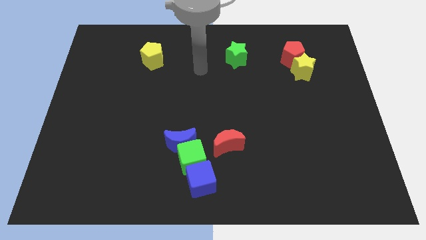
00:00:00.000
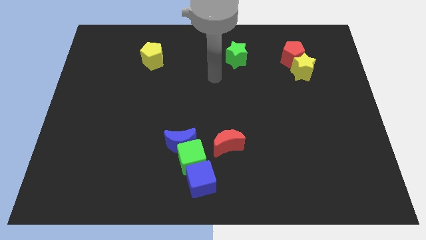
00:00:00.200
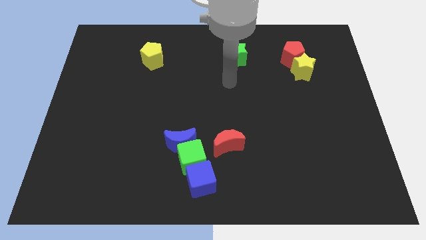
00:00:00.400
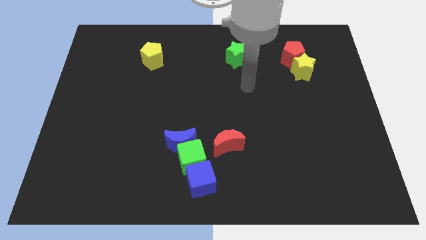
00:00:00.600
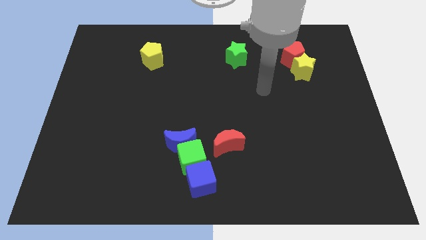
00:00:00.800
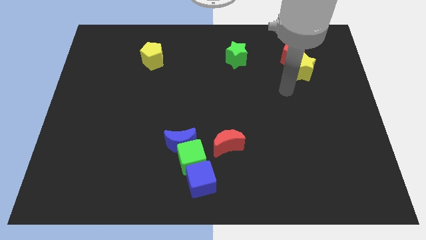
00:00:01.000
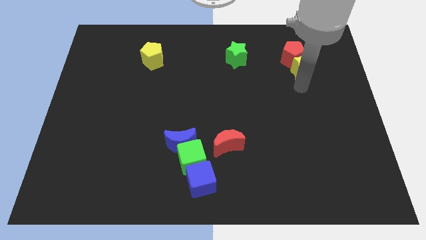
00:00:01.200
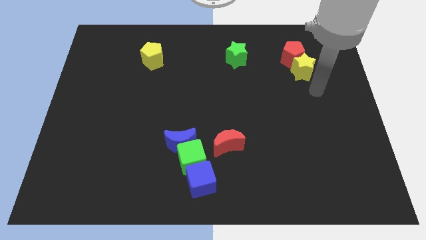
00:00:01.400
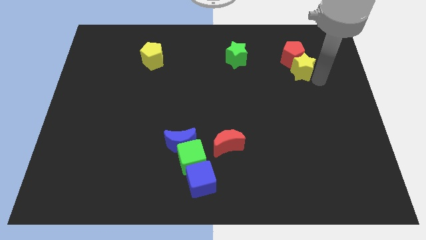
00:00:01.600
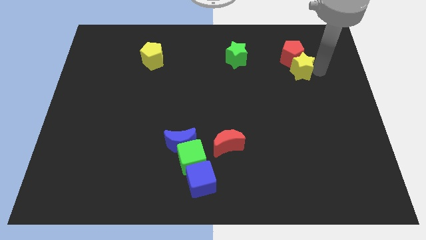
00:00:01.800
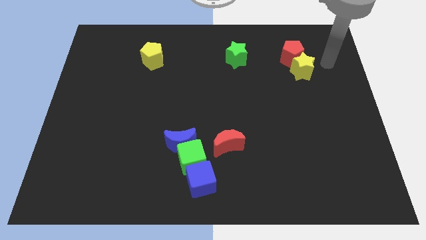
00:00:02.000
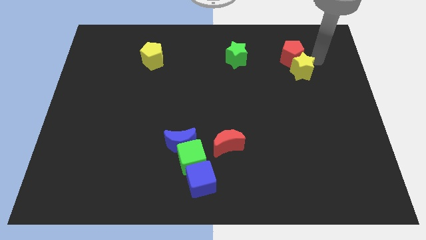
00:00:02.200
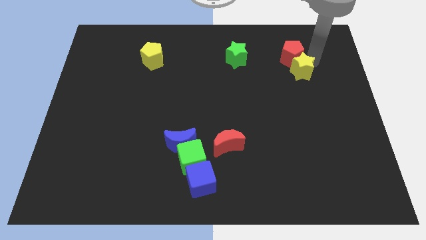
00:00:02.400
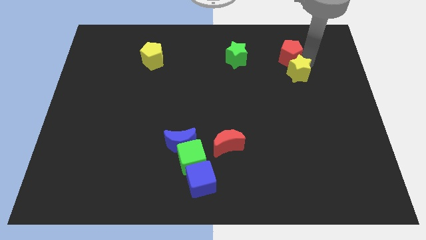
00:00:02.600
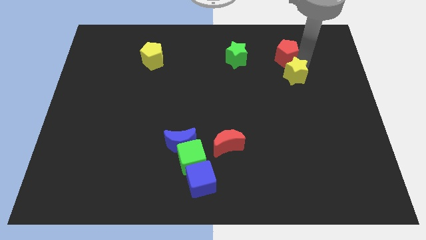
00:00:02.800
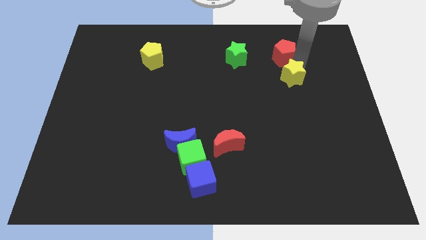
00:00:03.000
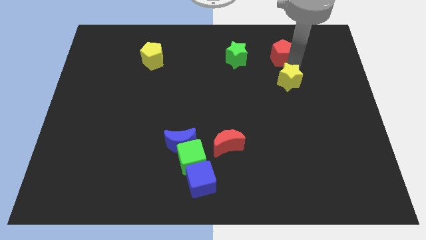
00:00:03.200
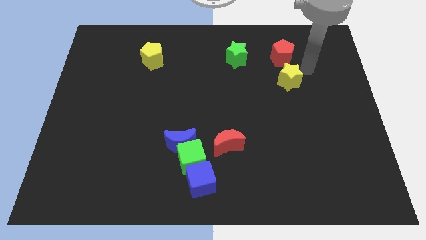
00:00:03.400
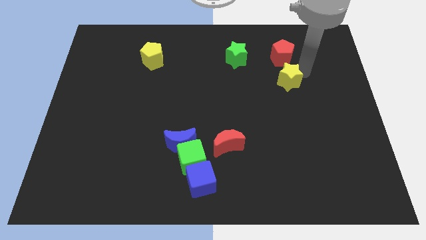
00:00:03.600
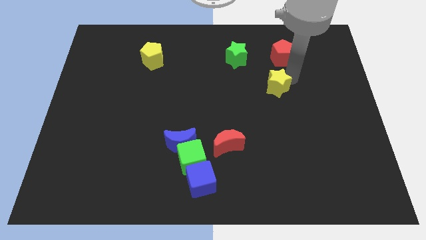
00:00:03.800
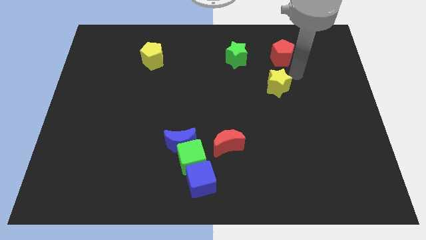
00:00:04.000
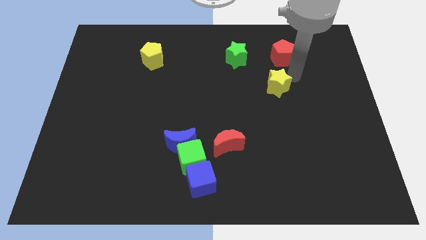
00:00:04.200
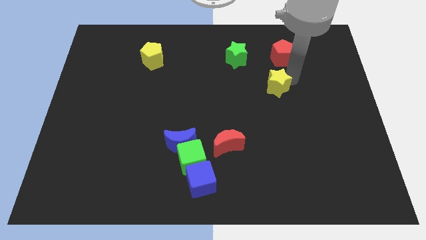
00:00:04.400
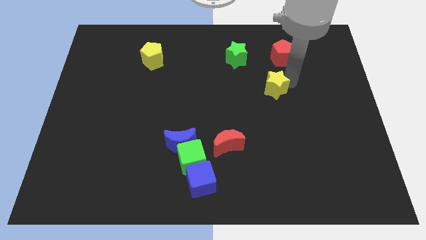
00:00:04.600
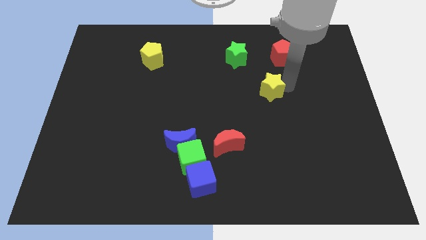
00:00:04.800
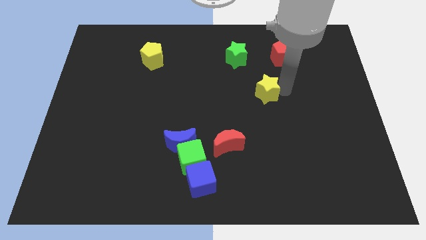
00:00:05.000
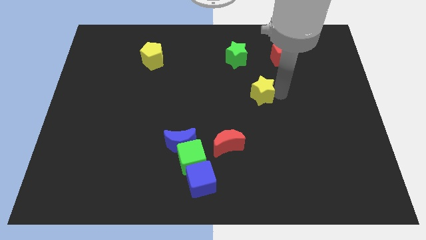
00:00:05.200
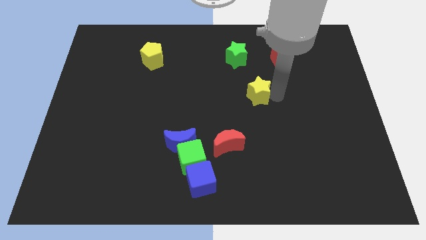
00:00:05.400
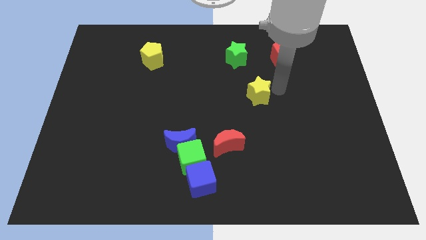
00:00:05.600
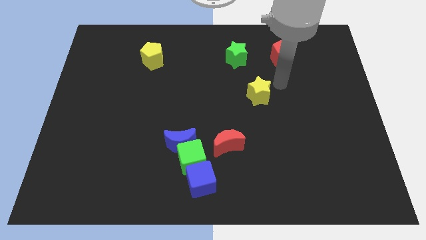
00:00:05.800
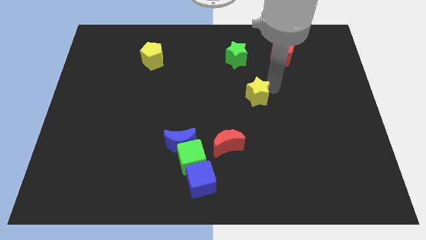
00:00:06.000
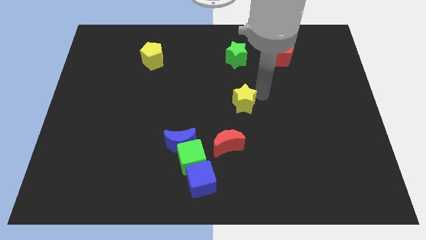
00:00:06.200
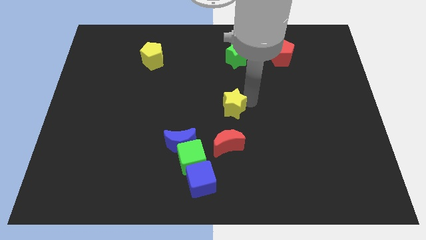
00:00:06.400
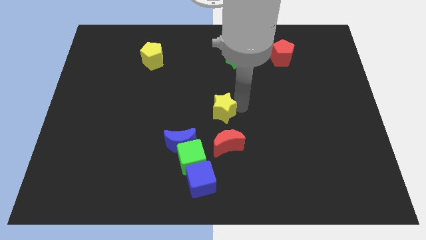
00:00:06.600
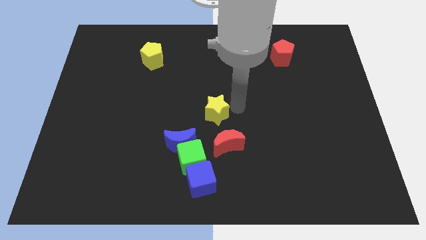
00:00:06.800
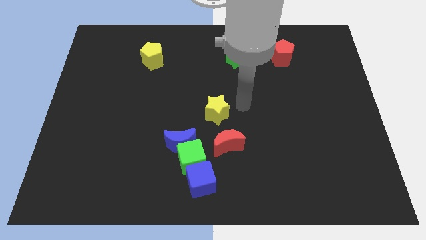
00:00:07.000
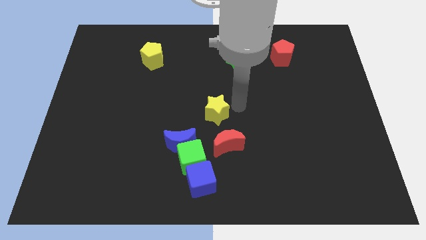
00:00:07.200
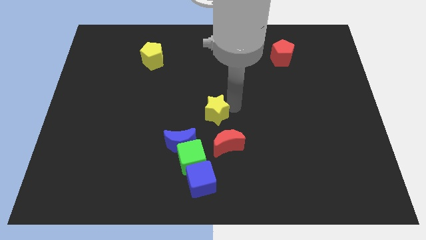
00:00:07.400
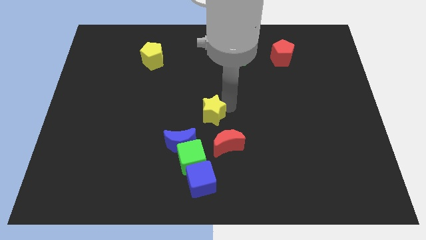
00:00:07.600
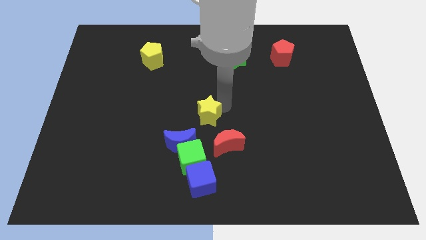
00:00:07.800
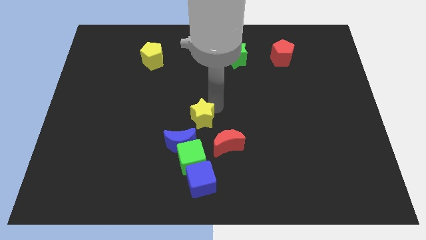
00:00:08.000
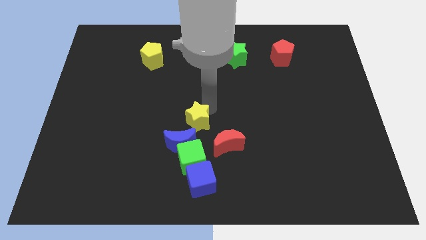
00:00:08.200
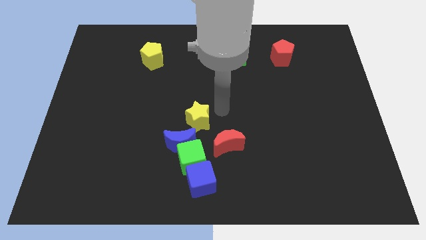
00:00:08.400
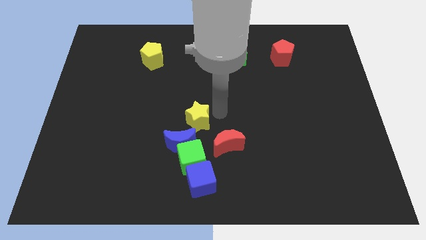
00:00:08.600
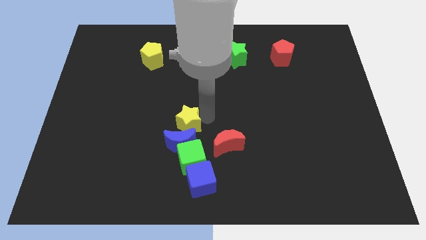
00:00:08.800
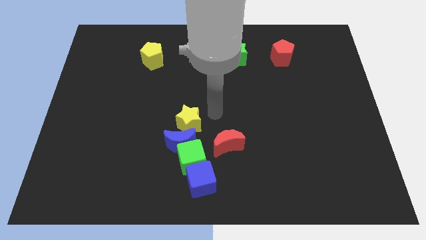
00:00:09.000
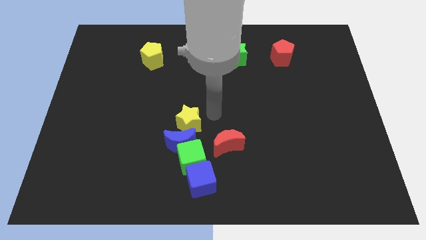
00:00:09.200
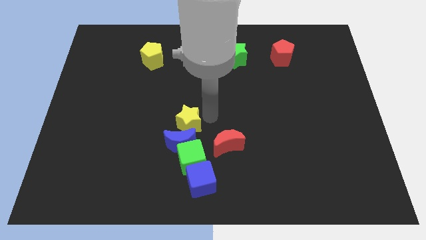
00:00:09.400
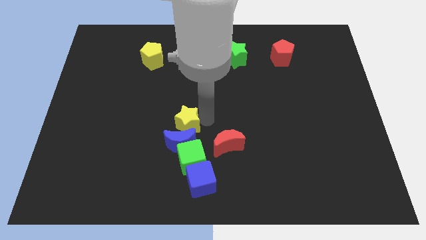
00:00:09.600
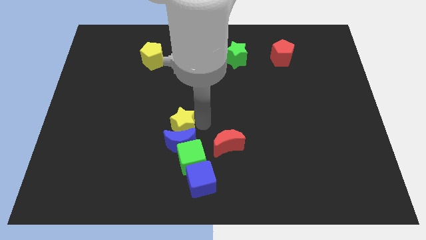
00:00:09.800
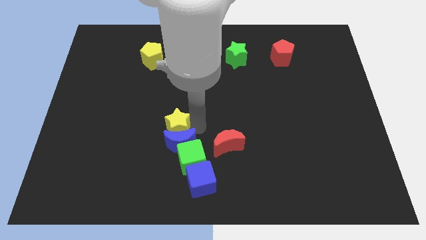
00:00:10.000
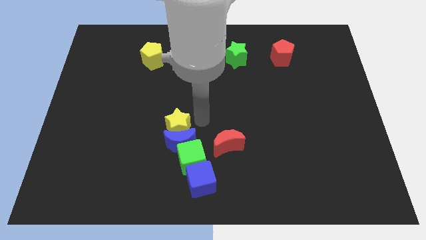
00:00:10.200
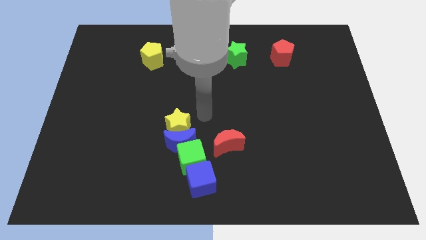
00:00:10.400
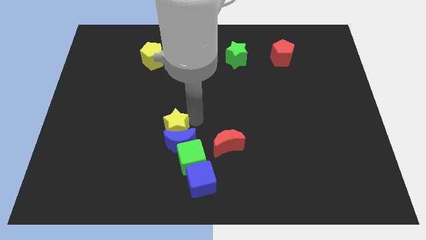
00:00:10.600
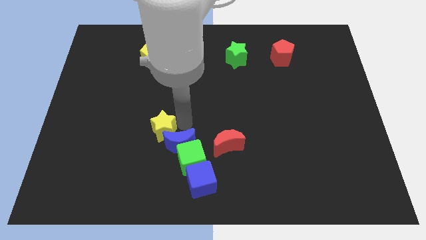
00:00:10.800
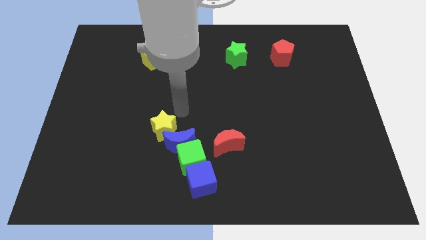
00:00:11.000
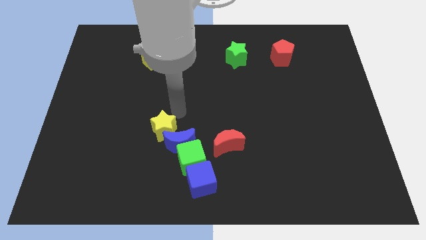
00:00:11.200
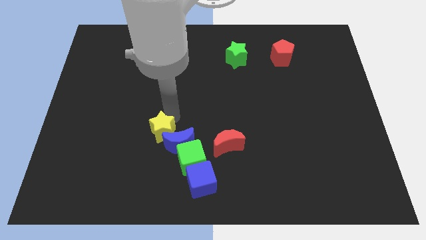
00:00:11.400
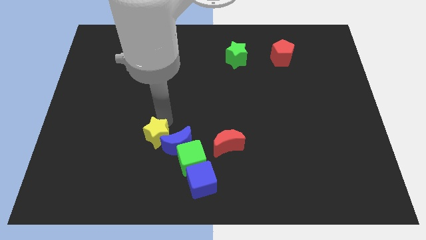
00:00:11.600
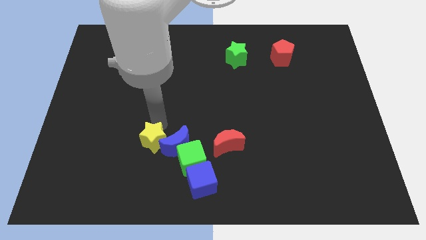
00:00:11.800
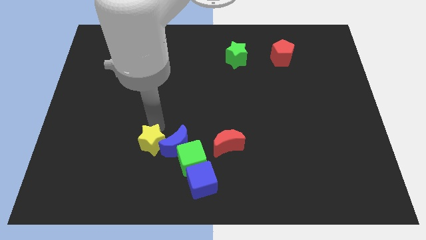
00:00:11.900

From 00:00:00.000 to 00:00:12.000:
slide the yellow star just left of the green cube

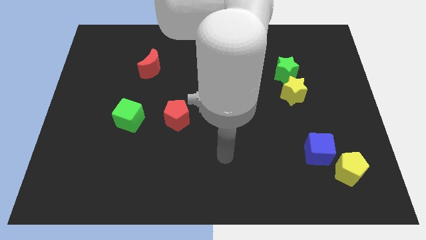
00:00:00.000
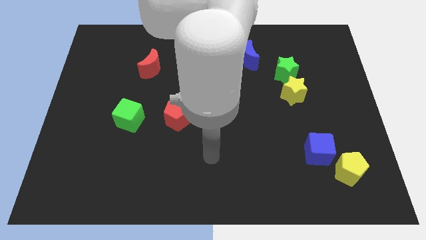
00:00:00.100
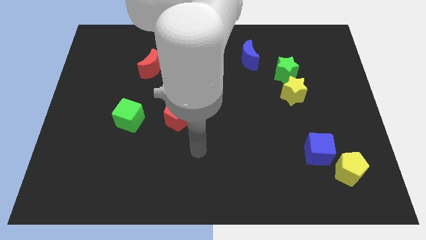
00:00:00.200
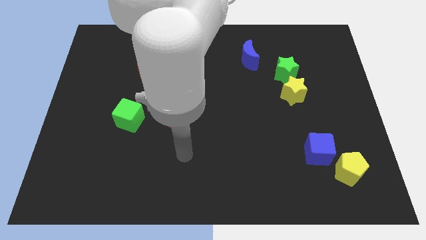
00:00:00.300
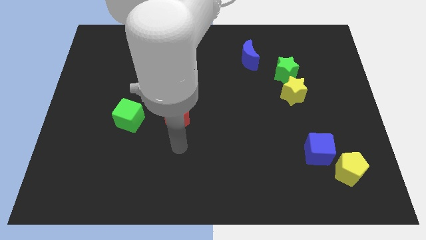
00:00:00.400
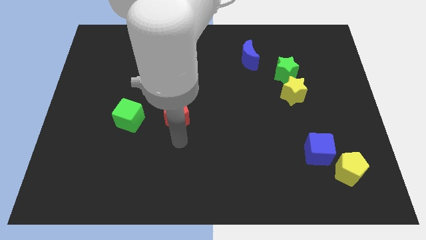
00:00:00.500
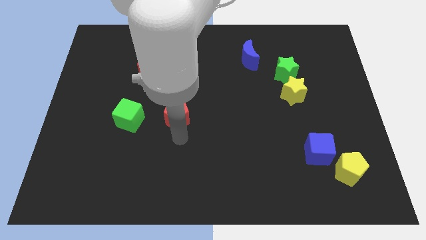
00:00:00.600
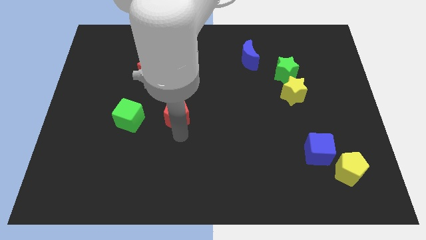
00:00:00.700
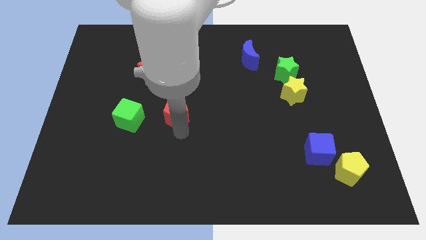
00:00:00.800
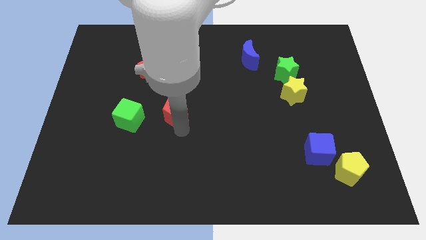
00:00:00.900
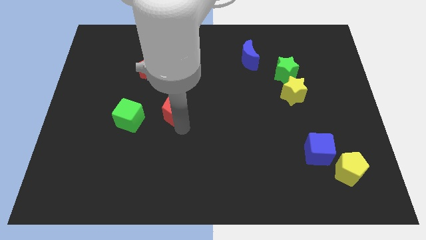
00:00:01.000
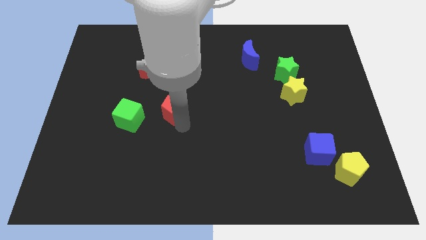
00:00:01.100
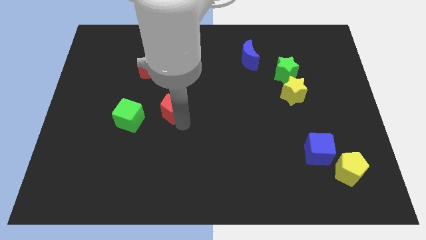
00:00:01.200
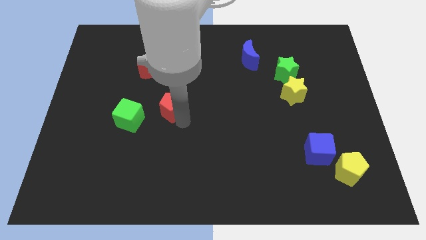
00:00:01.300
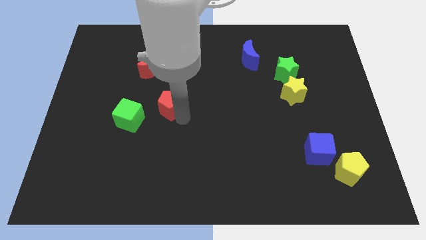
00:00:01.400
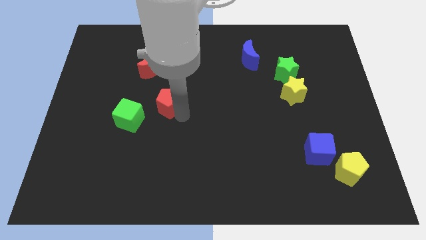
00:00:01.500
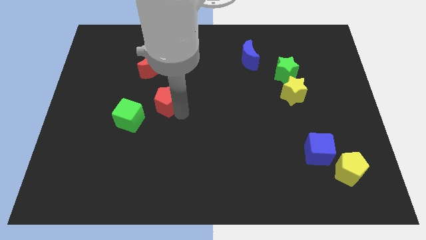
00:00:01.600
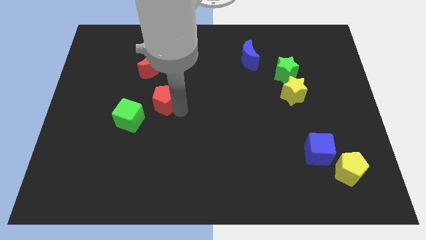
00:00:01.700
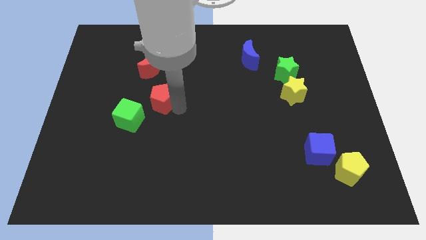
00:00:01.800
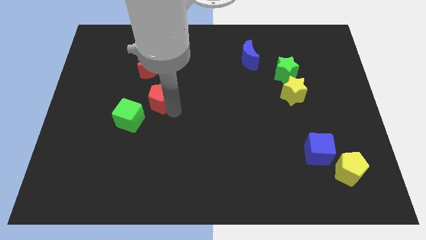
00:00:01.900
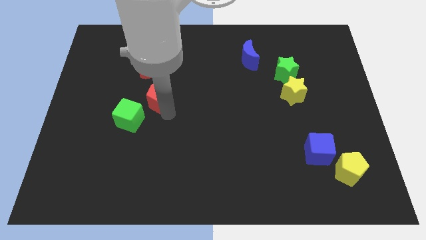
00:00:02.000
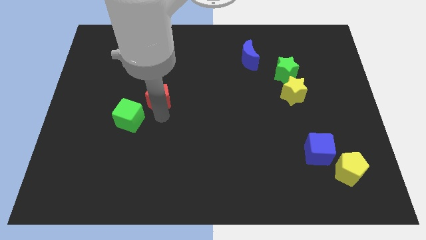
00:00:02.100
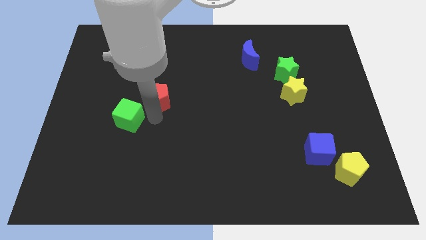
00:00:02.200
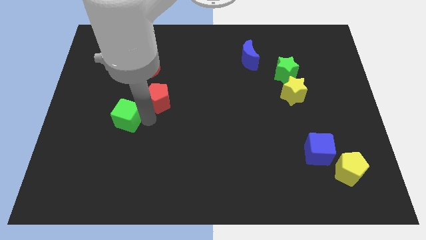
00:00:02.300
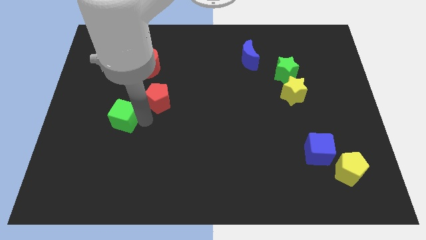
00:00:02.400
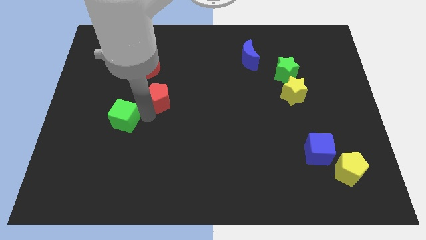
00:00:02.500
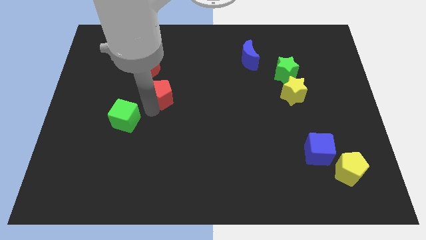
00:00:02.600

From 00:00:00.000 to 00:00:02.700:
put the red pentagon to the bottom right side of the red moon
